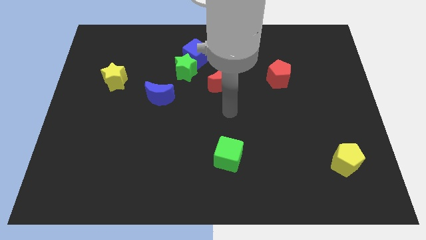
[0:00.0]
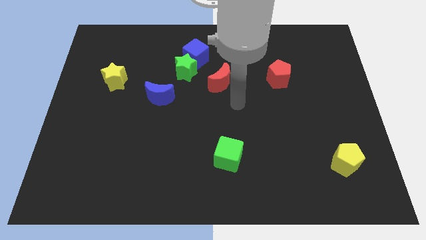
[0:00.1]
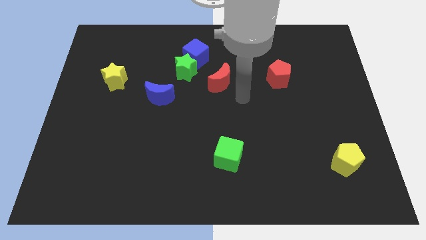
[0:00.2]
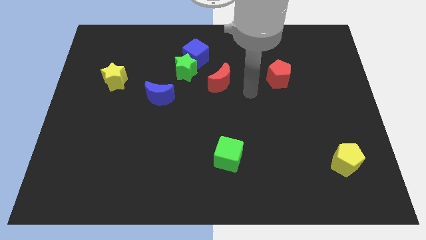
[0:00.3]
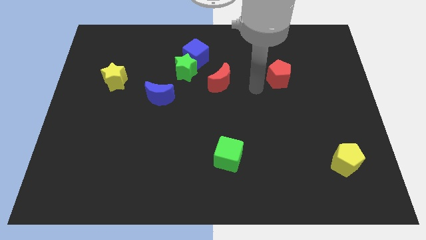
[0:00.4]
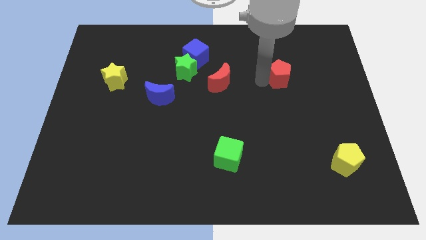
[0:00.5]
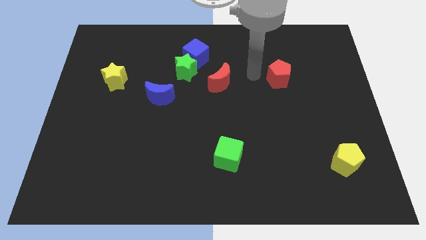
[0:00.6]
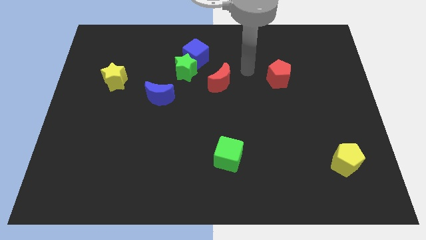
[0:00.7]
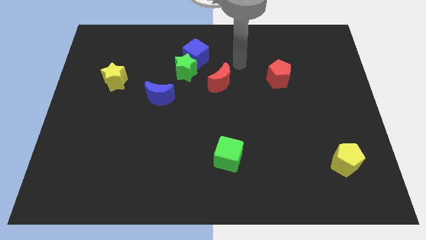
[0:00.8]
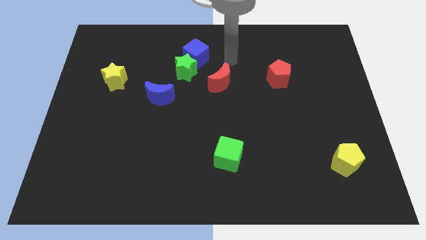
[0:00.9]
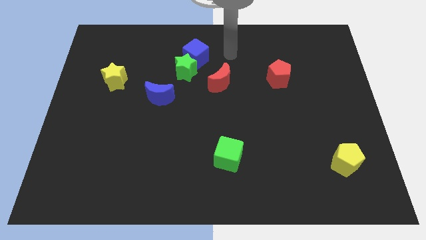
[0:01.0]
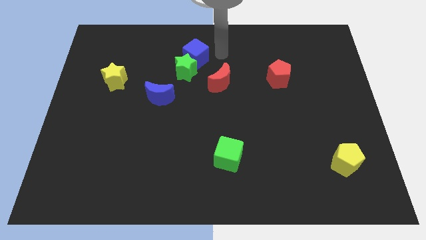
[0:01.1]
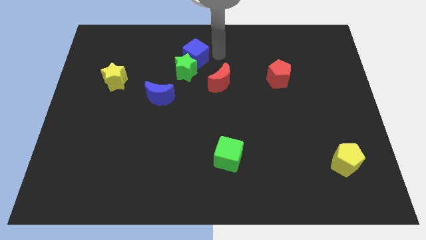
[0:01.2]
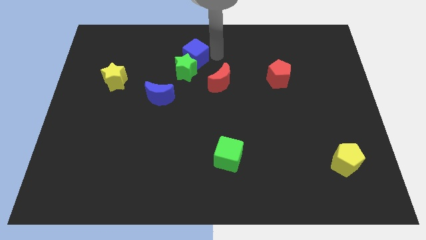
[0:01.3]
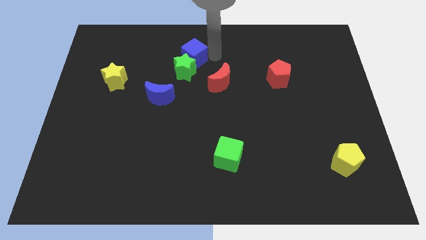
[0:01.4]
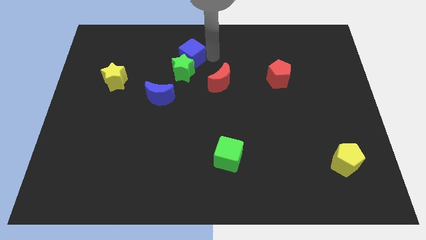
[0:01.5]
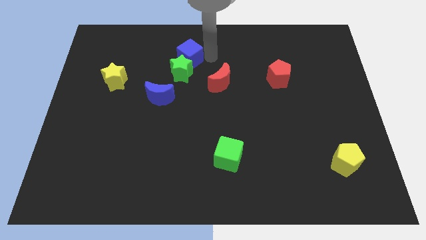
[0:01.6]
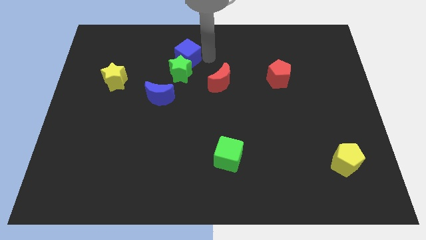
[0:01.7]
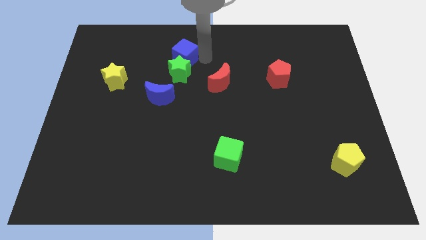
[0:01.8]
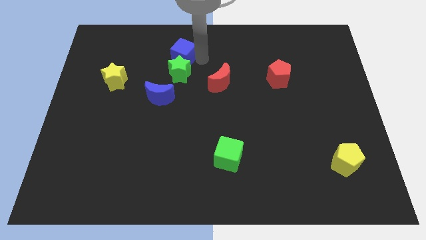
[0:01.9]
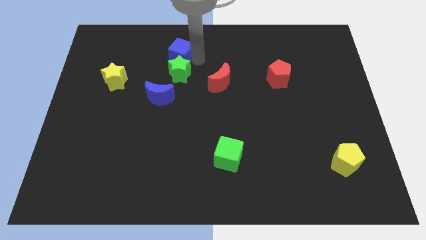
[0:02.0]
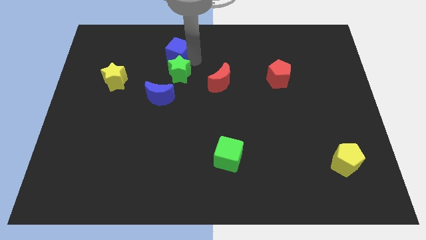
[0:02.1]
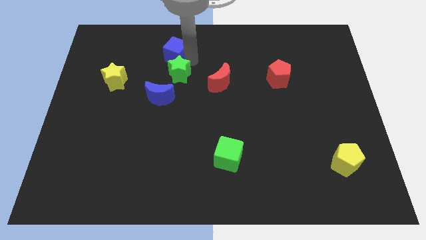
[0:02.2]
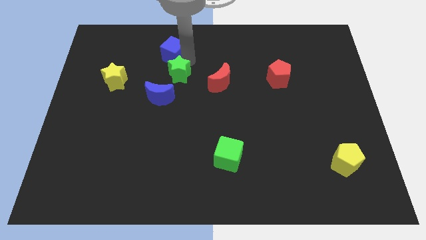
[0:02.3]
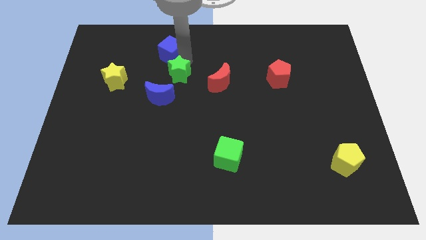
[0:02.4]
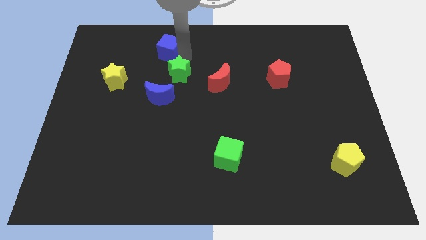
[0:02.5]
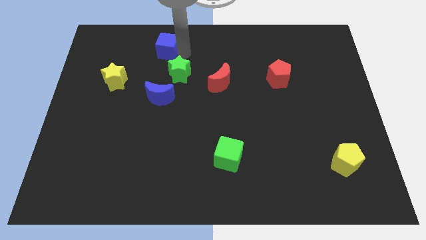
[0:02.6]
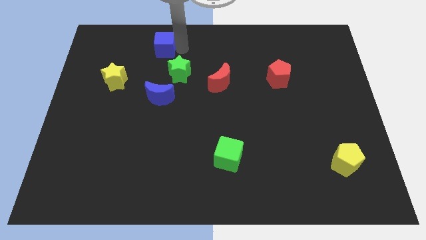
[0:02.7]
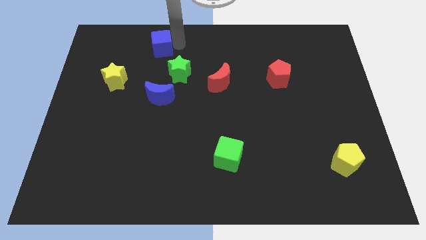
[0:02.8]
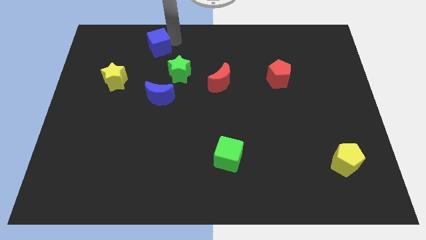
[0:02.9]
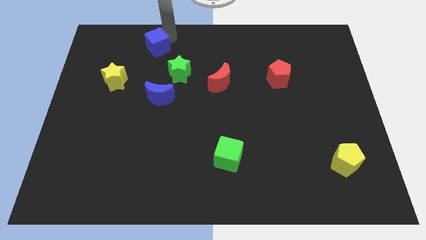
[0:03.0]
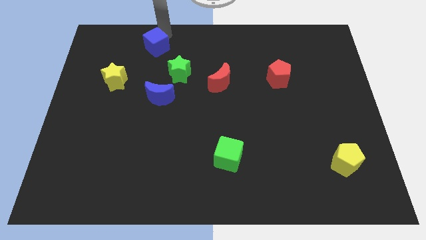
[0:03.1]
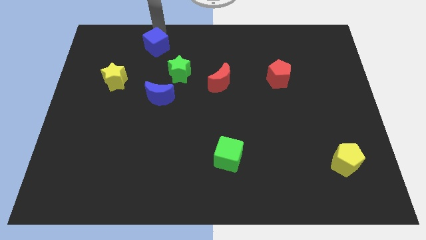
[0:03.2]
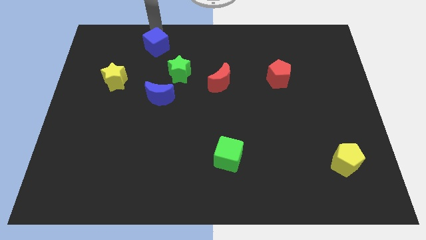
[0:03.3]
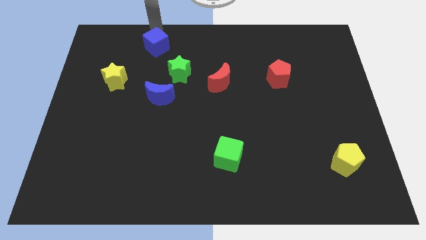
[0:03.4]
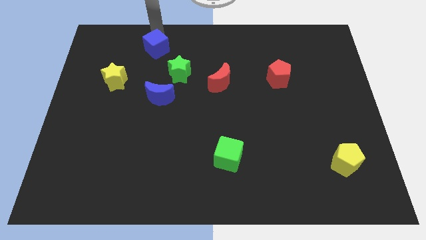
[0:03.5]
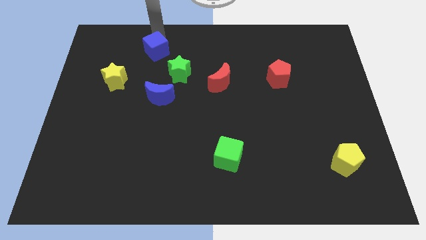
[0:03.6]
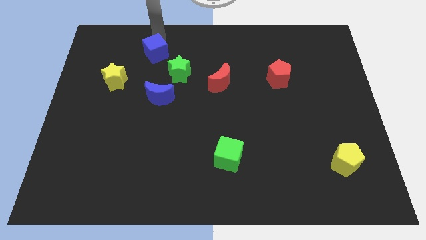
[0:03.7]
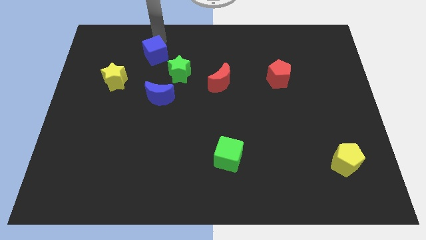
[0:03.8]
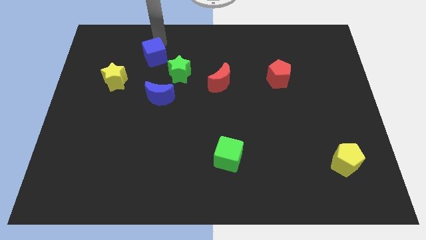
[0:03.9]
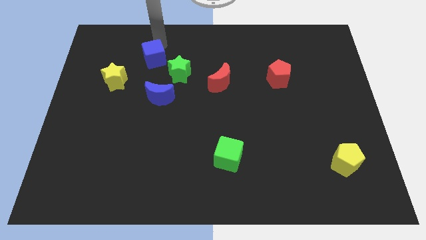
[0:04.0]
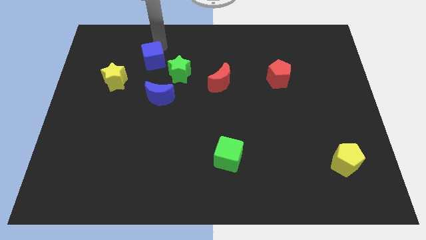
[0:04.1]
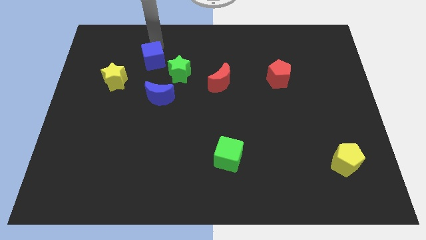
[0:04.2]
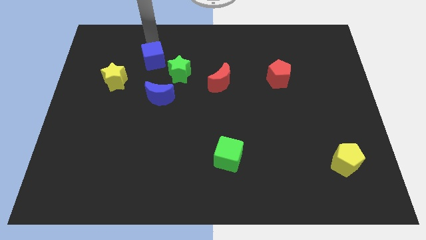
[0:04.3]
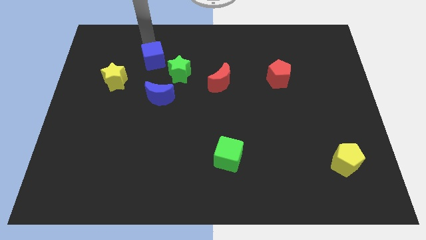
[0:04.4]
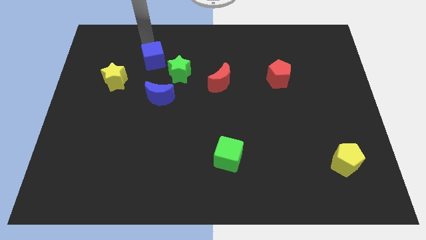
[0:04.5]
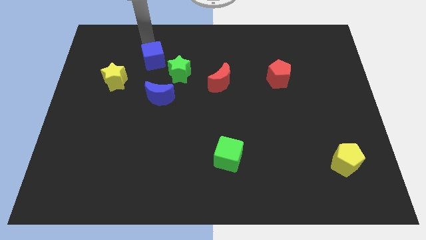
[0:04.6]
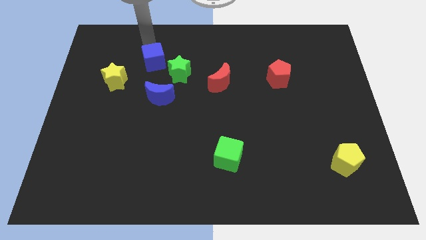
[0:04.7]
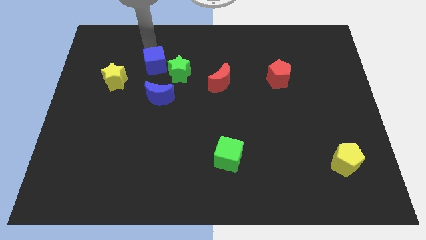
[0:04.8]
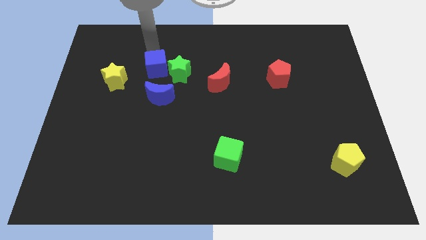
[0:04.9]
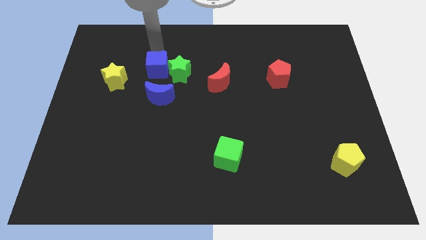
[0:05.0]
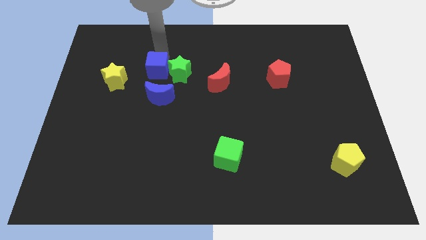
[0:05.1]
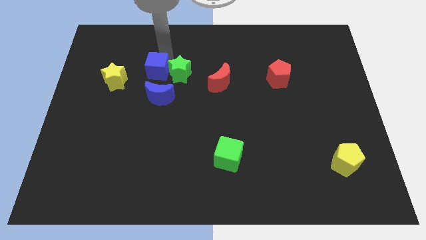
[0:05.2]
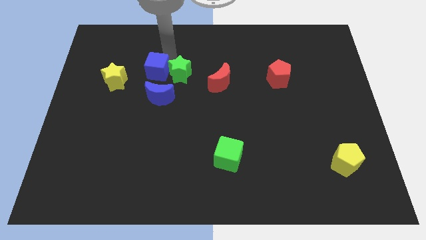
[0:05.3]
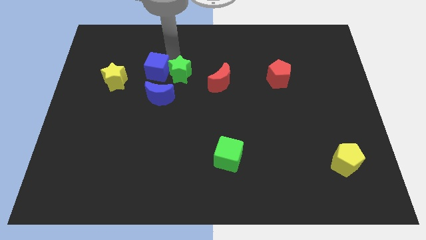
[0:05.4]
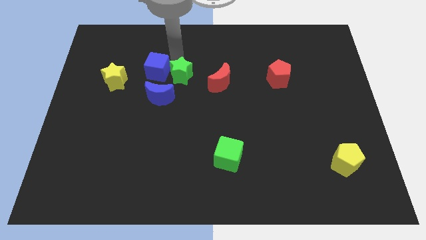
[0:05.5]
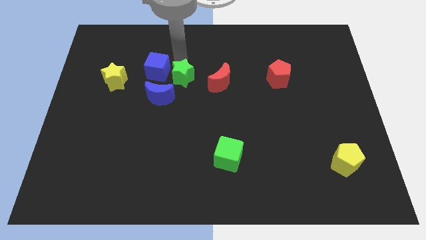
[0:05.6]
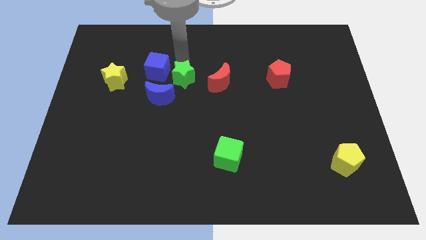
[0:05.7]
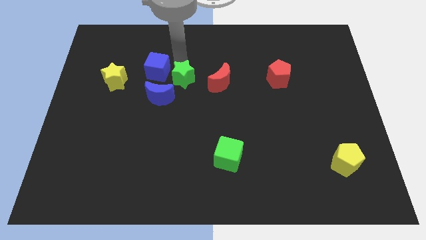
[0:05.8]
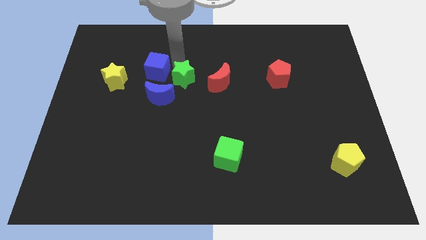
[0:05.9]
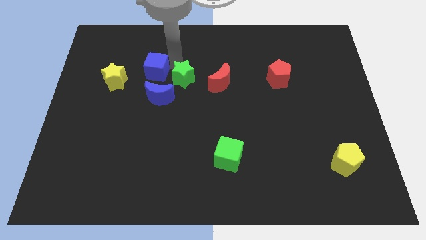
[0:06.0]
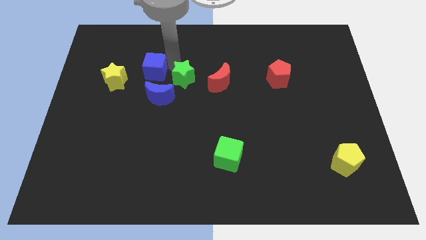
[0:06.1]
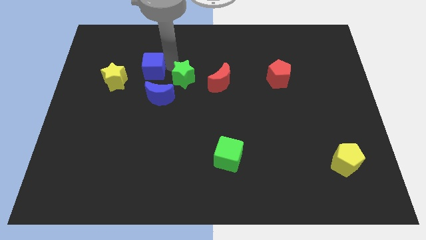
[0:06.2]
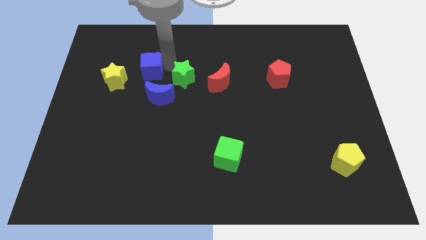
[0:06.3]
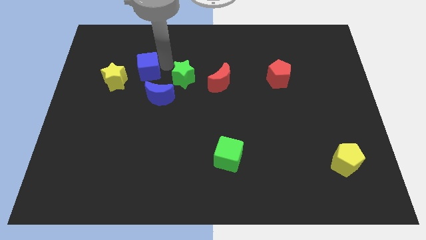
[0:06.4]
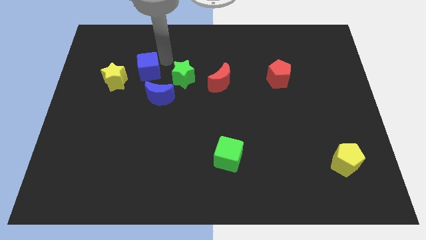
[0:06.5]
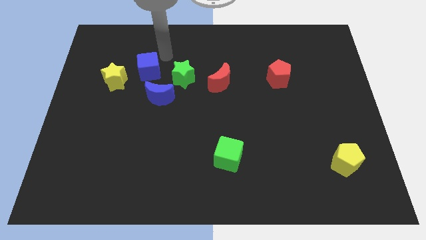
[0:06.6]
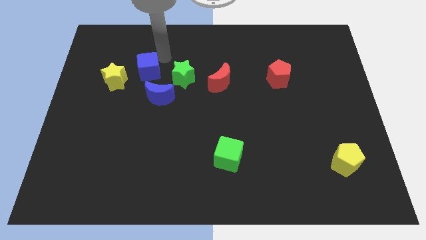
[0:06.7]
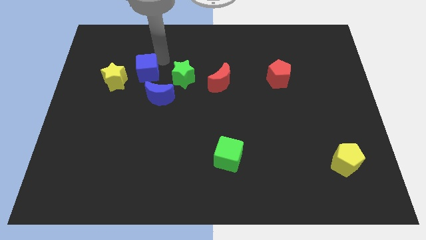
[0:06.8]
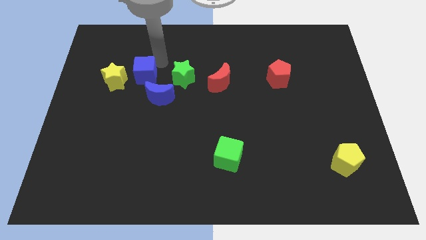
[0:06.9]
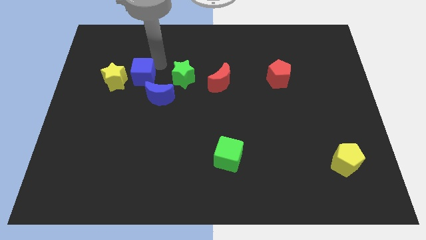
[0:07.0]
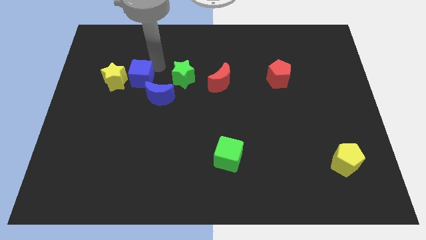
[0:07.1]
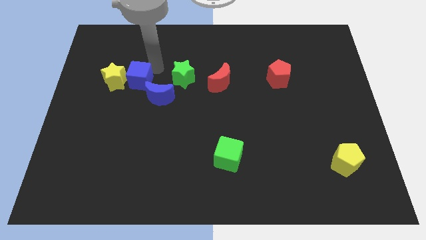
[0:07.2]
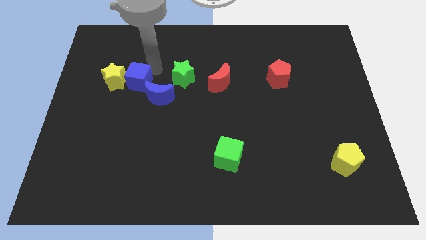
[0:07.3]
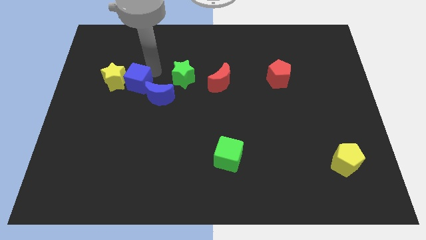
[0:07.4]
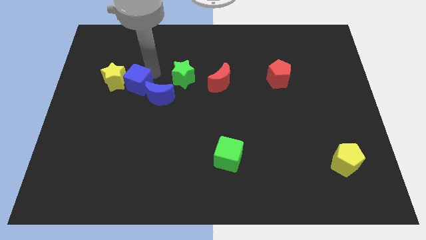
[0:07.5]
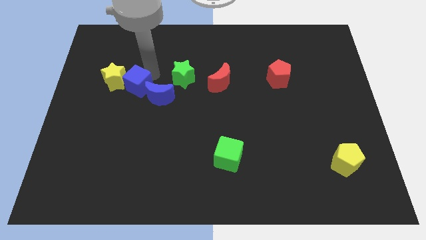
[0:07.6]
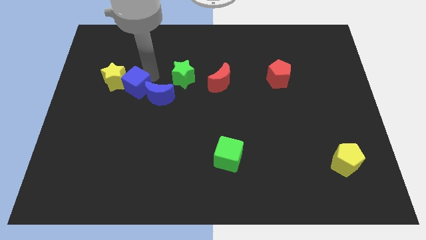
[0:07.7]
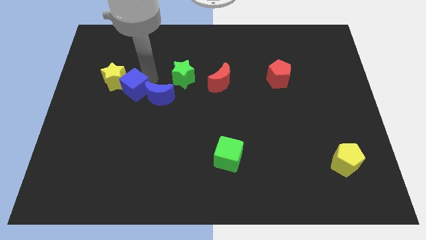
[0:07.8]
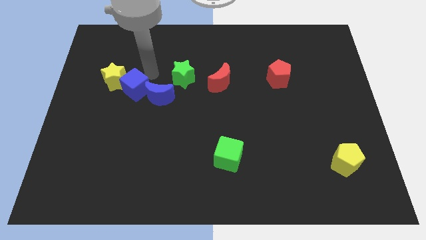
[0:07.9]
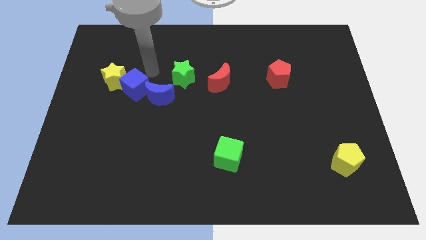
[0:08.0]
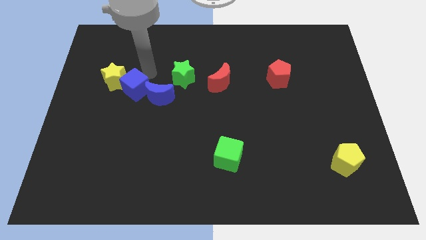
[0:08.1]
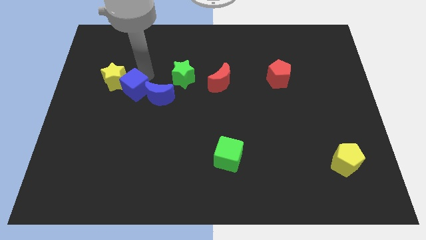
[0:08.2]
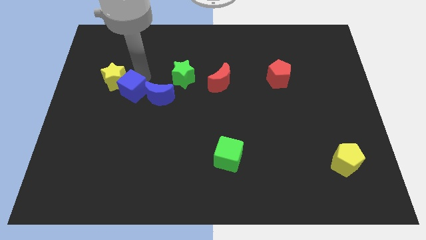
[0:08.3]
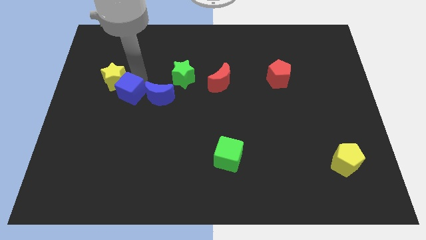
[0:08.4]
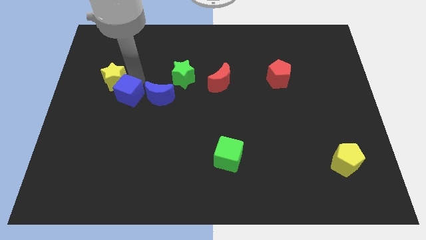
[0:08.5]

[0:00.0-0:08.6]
slide the blue cube diagonally down and to the left
